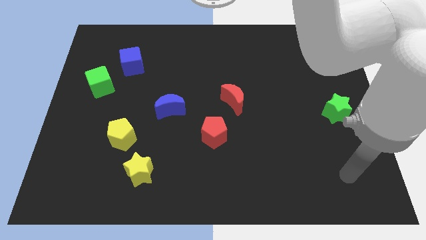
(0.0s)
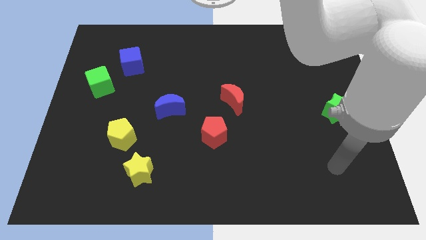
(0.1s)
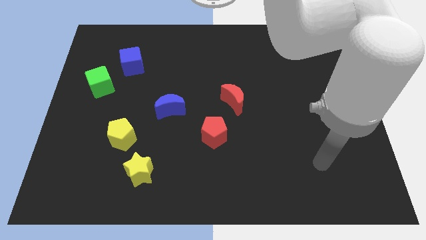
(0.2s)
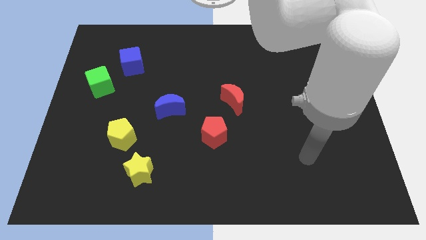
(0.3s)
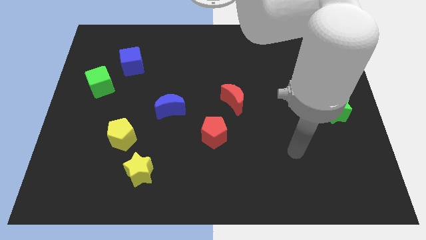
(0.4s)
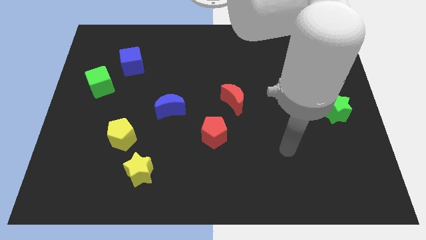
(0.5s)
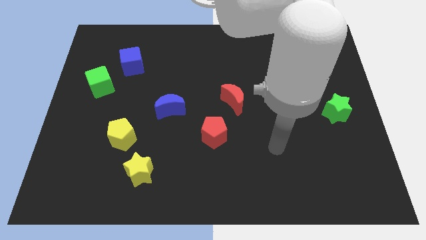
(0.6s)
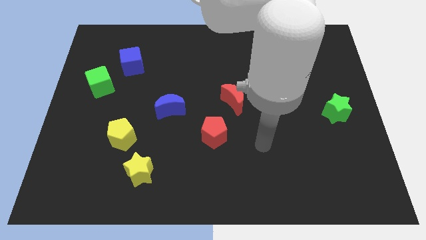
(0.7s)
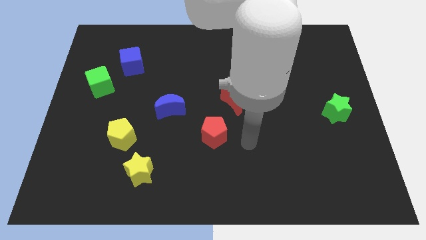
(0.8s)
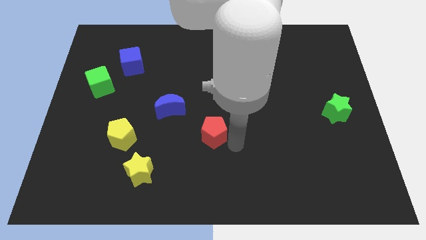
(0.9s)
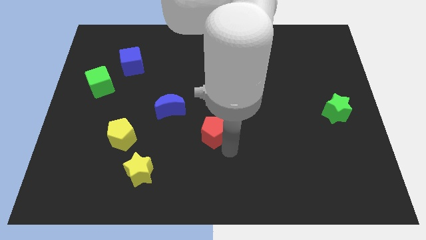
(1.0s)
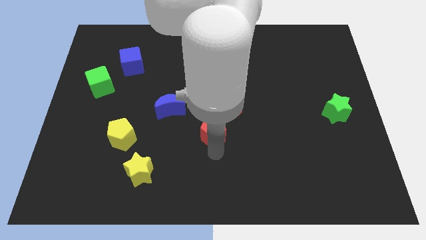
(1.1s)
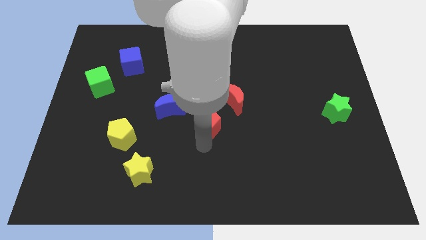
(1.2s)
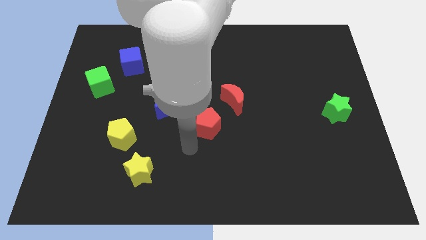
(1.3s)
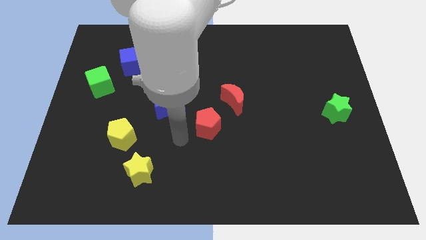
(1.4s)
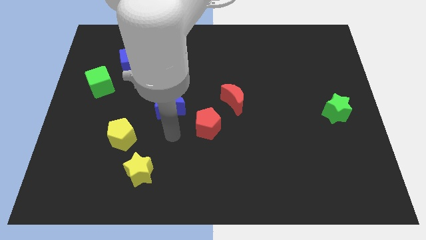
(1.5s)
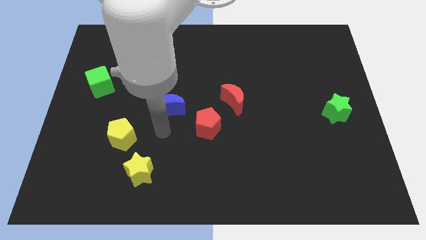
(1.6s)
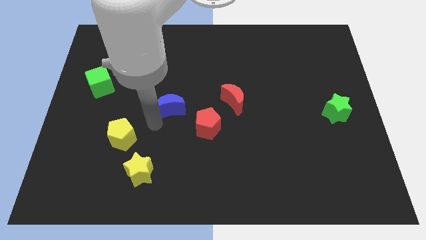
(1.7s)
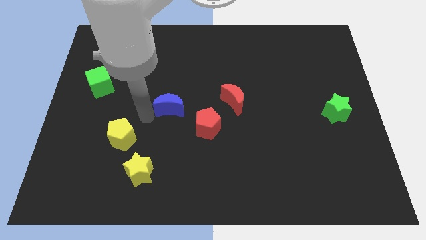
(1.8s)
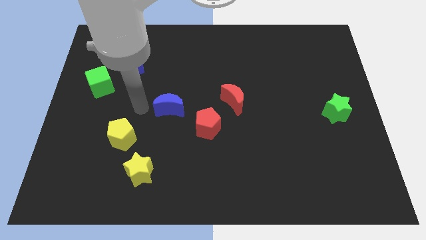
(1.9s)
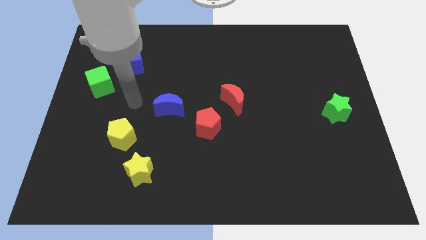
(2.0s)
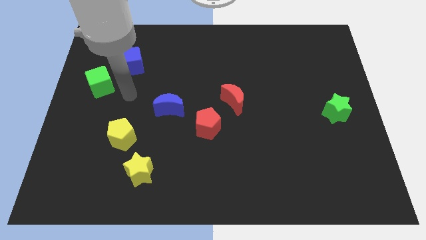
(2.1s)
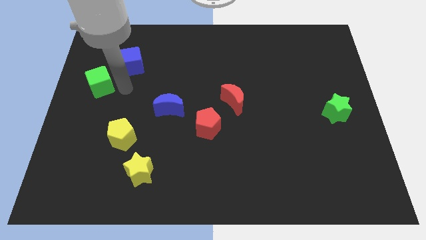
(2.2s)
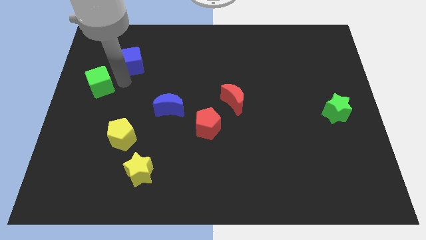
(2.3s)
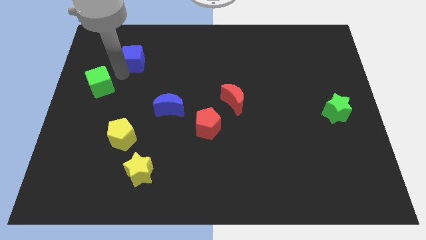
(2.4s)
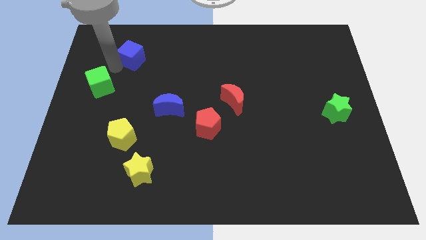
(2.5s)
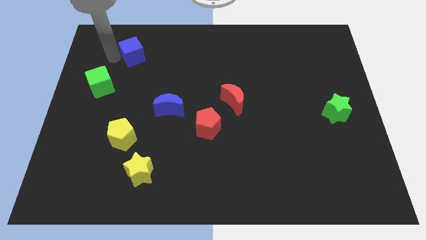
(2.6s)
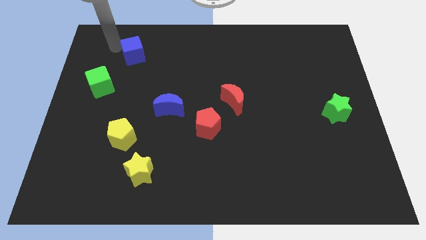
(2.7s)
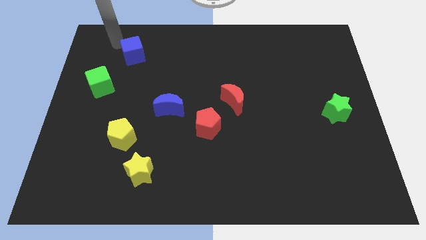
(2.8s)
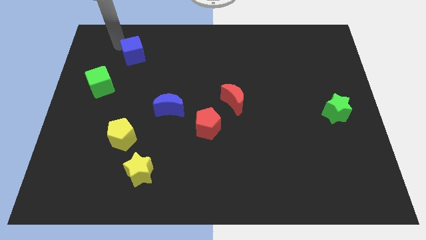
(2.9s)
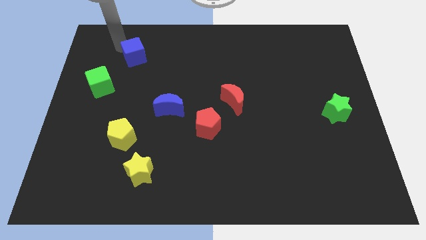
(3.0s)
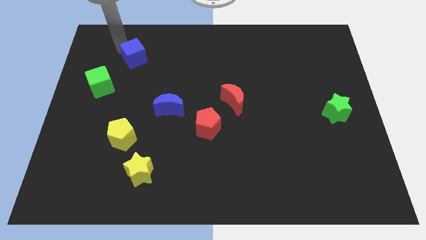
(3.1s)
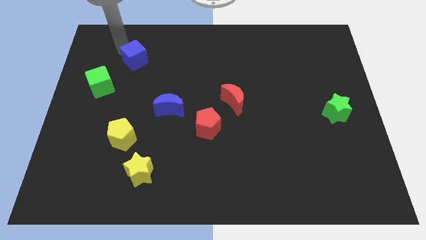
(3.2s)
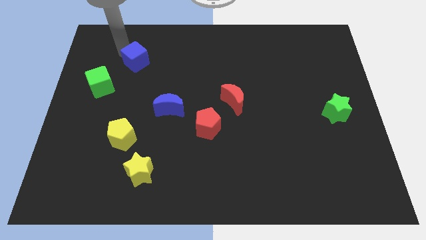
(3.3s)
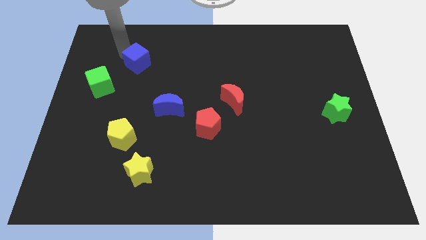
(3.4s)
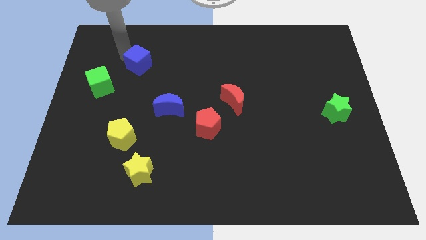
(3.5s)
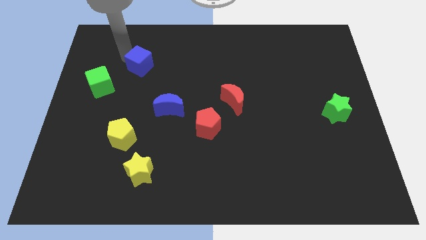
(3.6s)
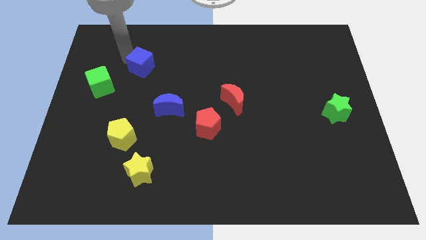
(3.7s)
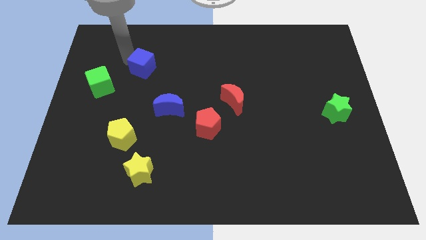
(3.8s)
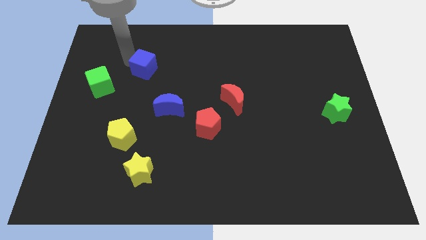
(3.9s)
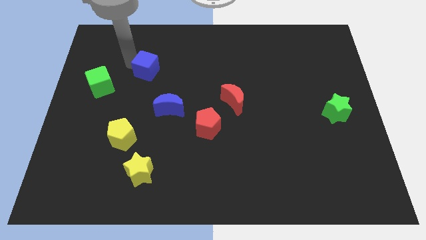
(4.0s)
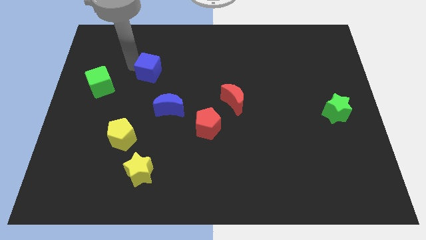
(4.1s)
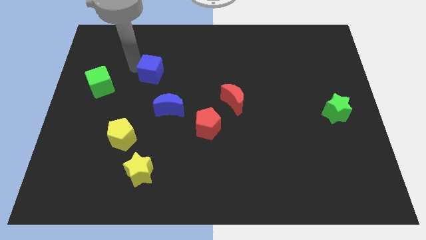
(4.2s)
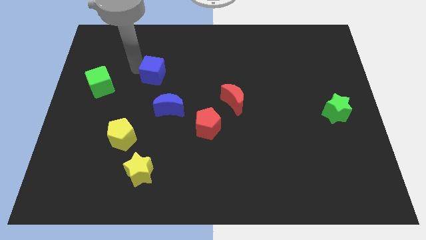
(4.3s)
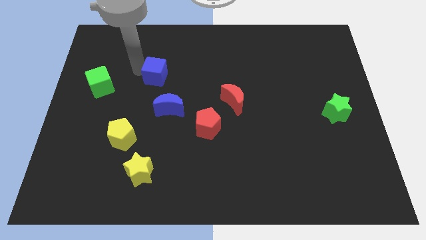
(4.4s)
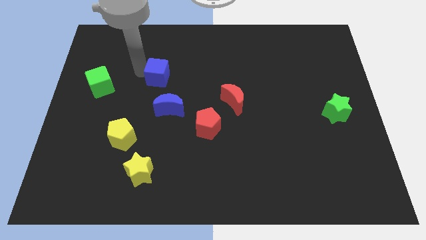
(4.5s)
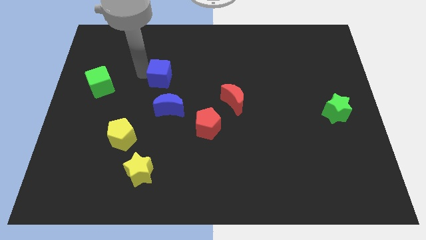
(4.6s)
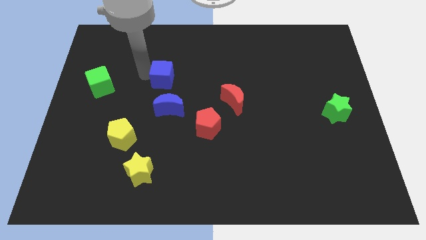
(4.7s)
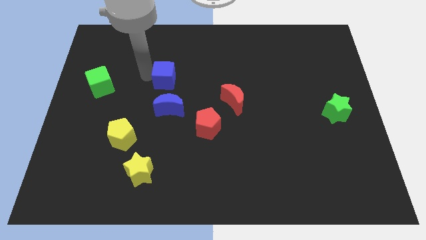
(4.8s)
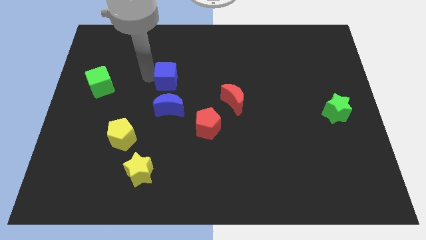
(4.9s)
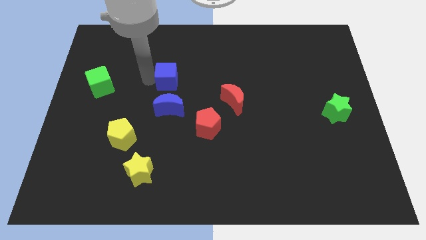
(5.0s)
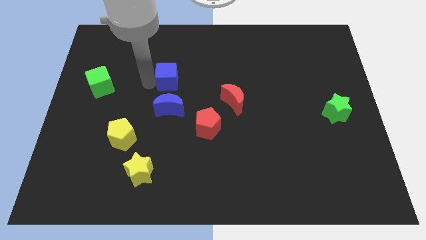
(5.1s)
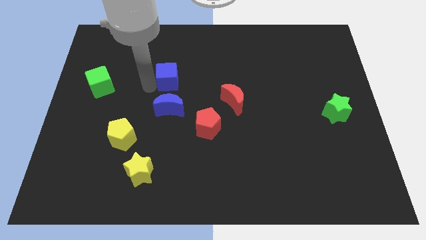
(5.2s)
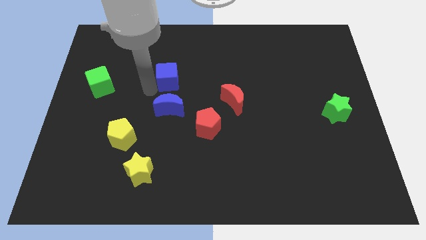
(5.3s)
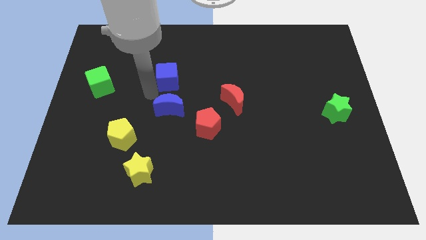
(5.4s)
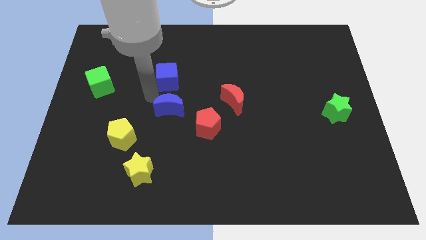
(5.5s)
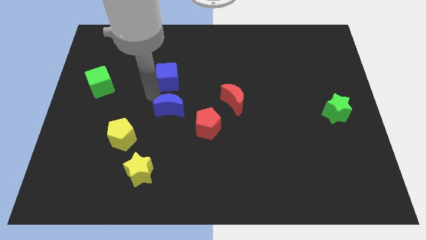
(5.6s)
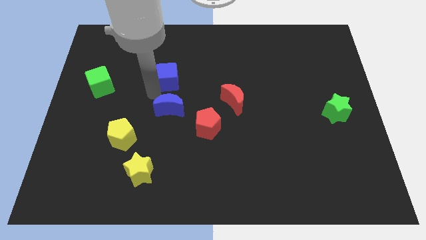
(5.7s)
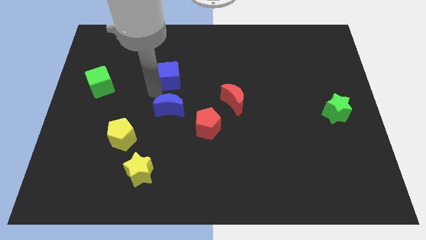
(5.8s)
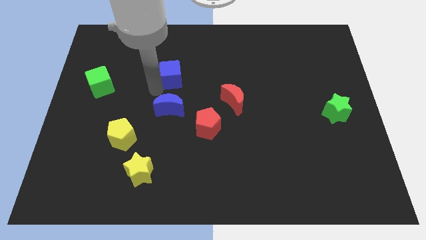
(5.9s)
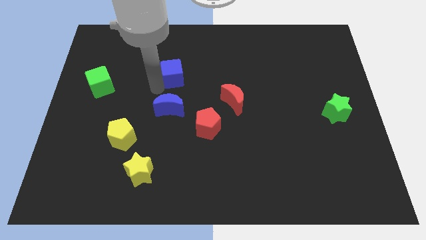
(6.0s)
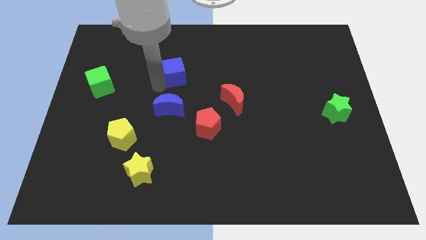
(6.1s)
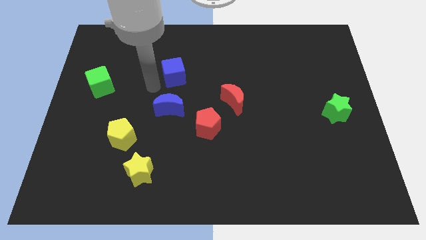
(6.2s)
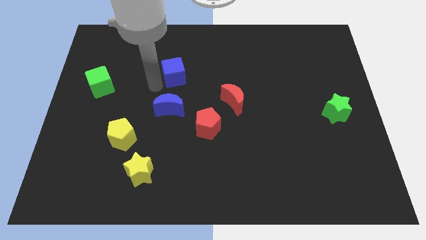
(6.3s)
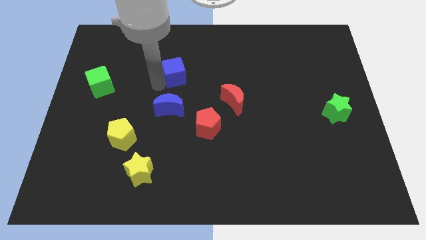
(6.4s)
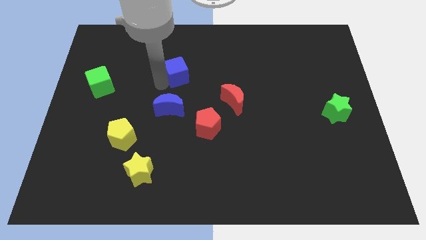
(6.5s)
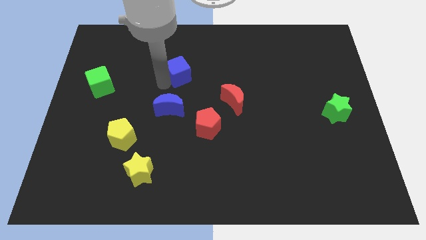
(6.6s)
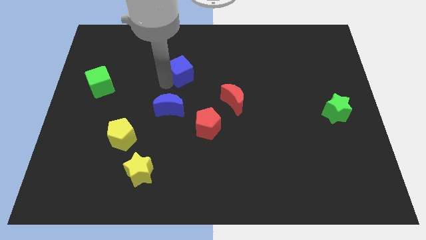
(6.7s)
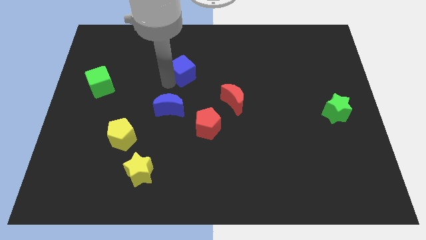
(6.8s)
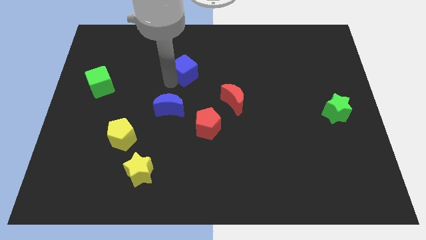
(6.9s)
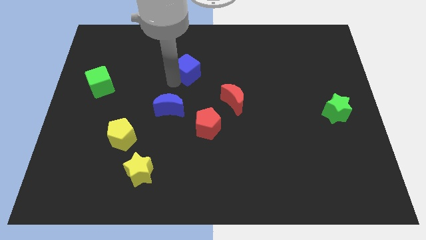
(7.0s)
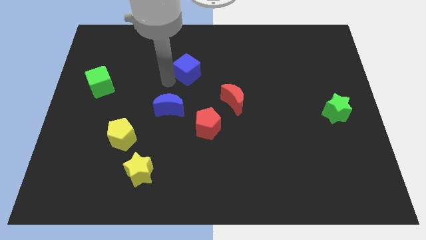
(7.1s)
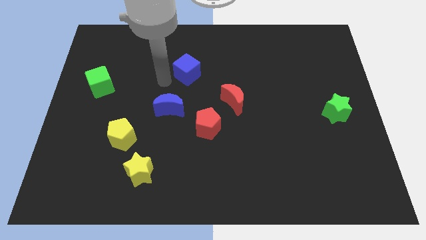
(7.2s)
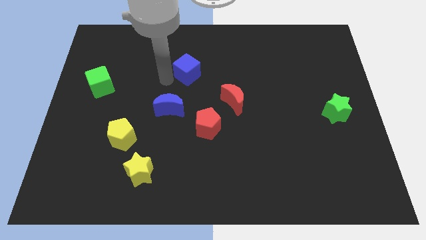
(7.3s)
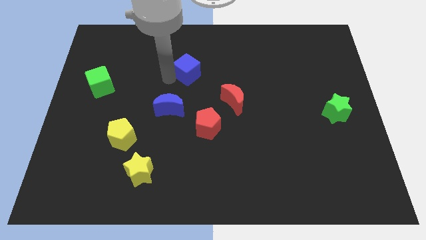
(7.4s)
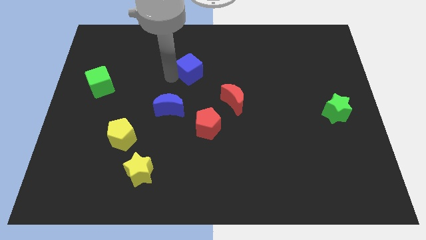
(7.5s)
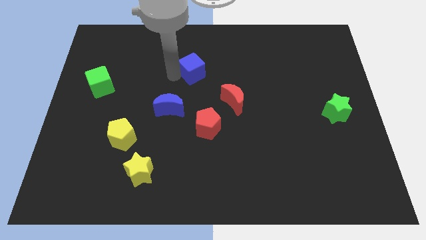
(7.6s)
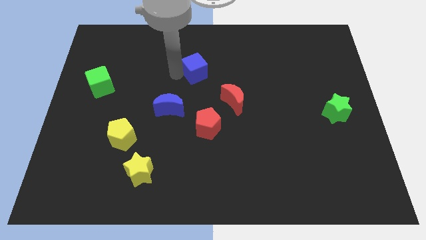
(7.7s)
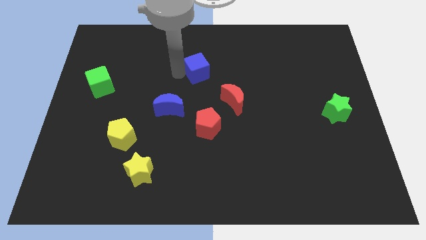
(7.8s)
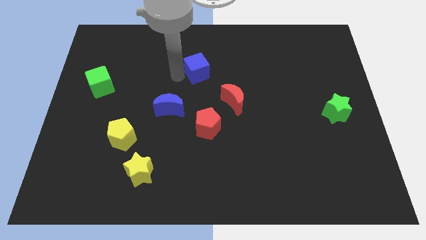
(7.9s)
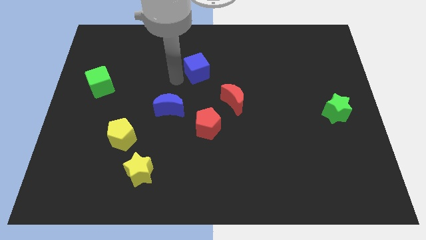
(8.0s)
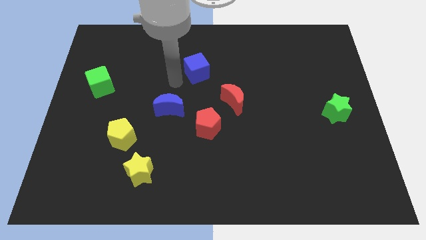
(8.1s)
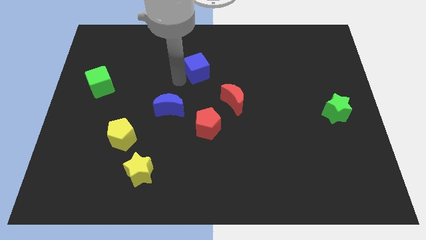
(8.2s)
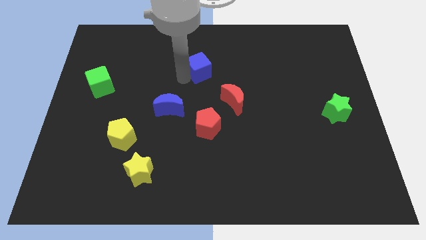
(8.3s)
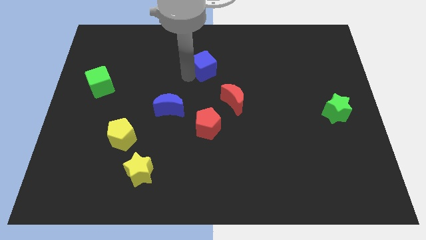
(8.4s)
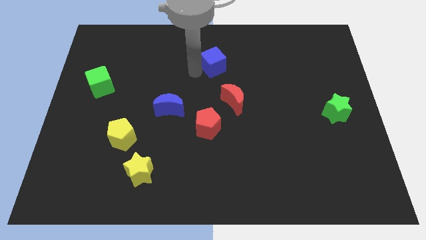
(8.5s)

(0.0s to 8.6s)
slide the blue cube right
